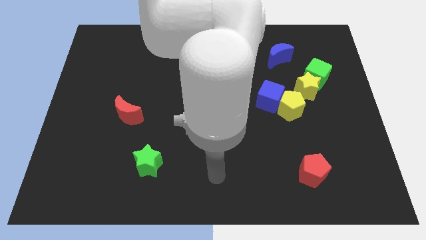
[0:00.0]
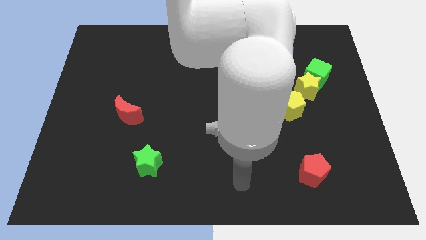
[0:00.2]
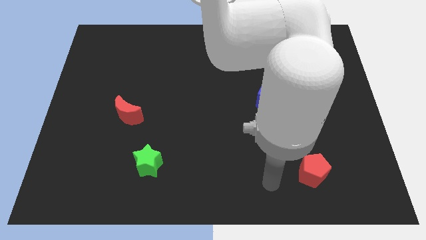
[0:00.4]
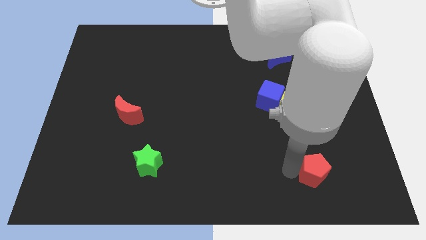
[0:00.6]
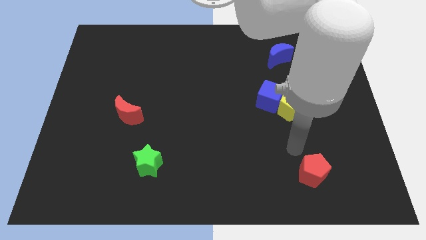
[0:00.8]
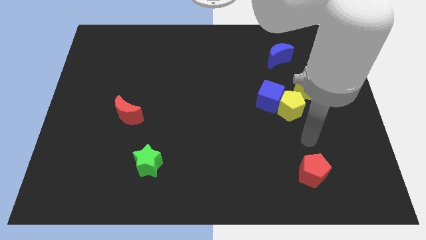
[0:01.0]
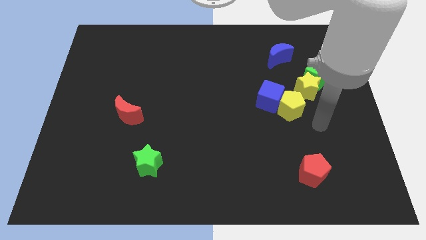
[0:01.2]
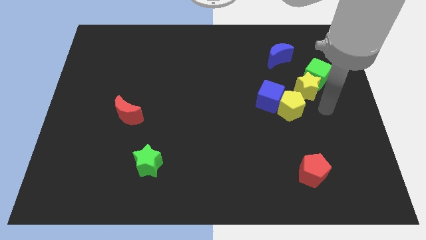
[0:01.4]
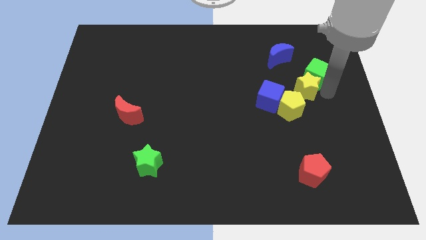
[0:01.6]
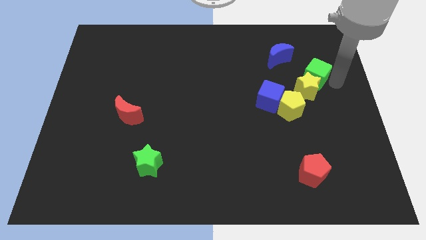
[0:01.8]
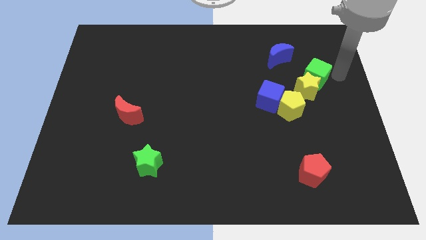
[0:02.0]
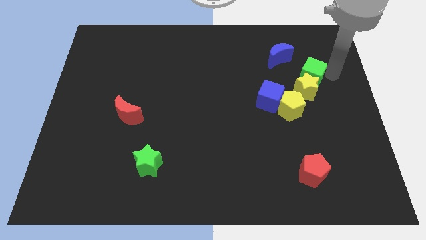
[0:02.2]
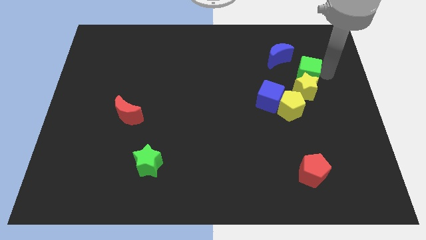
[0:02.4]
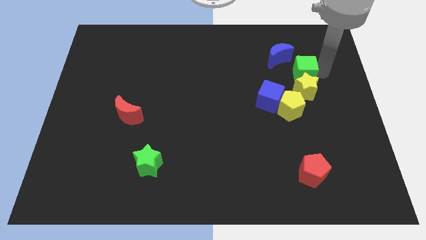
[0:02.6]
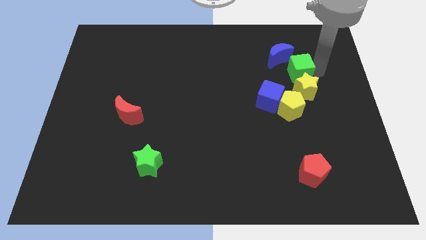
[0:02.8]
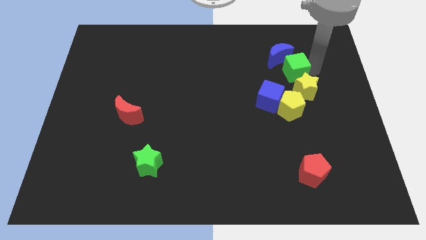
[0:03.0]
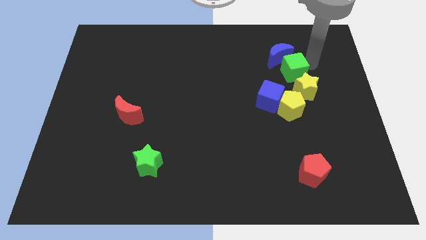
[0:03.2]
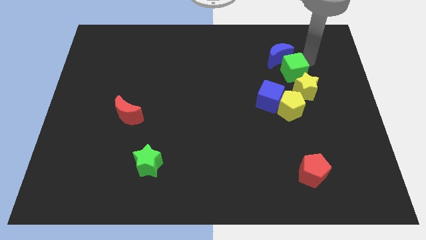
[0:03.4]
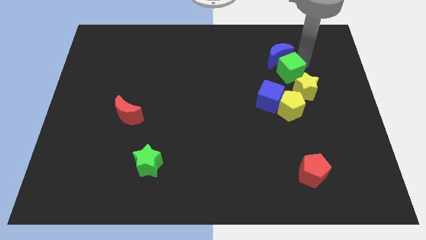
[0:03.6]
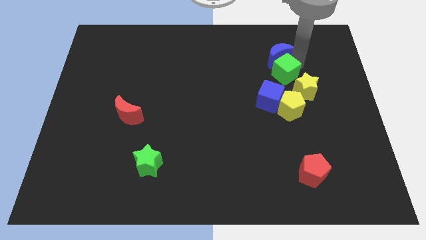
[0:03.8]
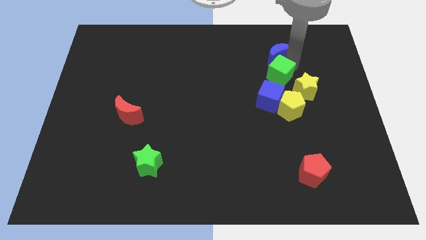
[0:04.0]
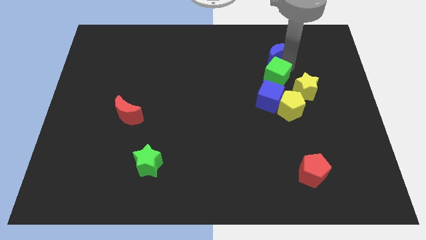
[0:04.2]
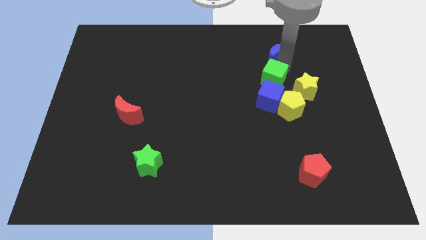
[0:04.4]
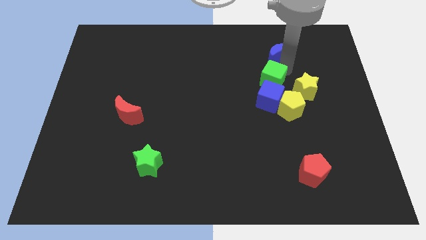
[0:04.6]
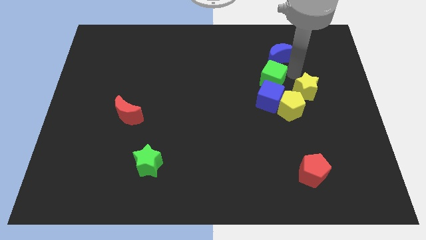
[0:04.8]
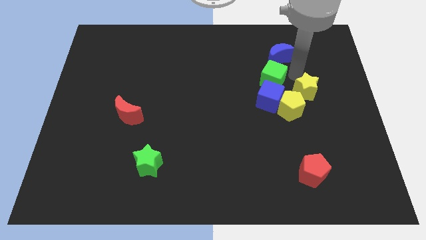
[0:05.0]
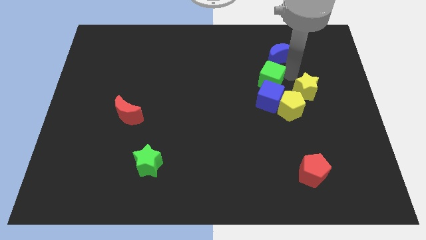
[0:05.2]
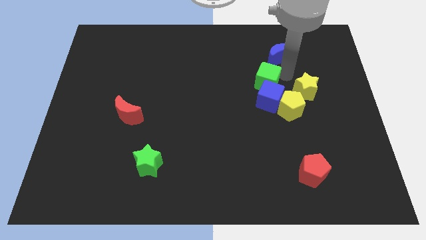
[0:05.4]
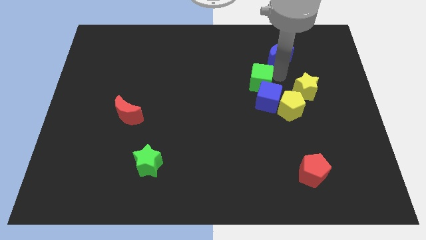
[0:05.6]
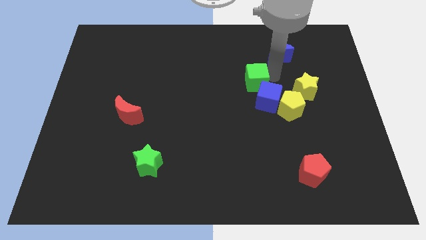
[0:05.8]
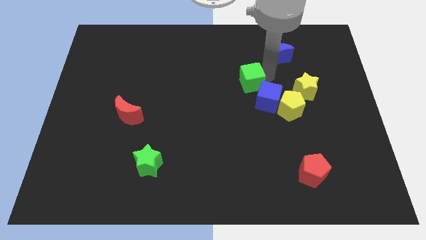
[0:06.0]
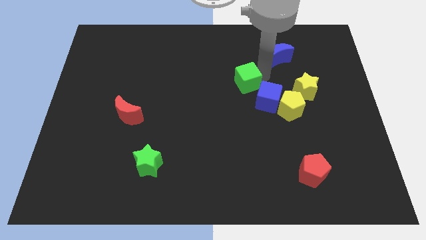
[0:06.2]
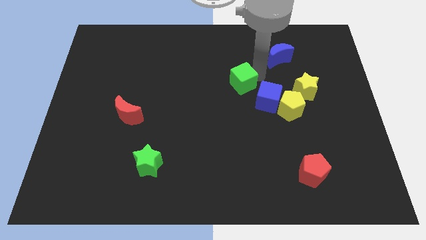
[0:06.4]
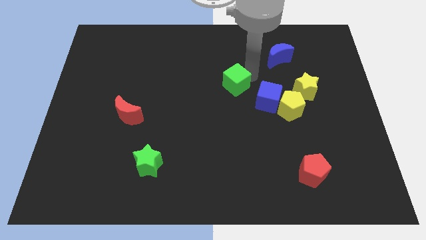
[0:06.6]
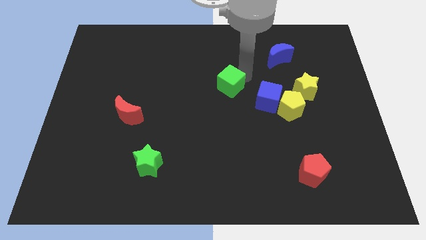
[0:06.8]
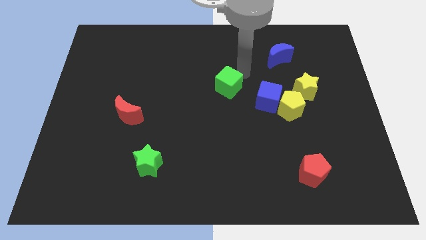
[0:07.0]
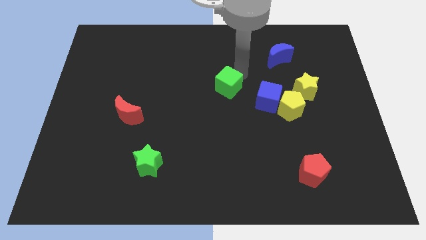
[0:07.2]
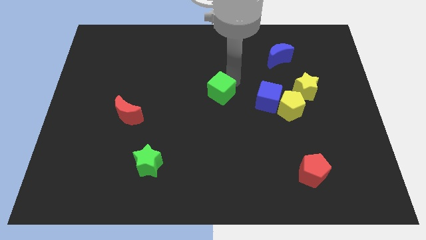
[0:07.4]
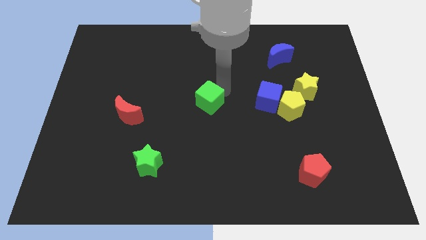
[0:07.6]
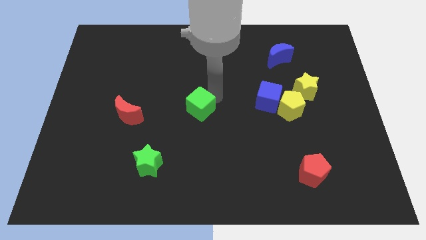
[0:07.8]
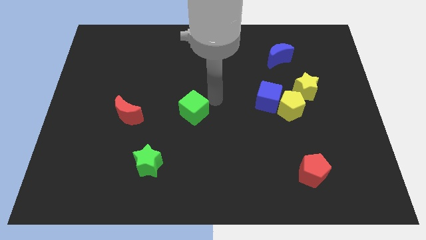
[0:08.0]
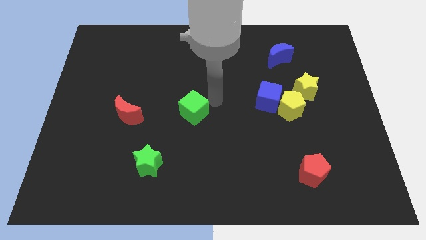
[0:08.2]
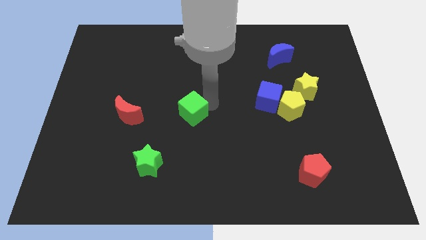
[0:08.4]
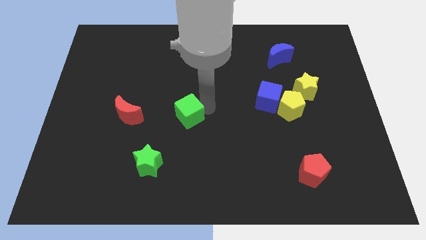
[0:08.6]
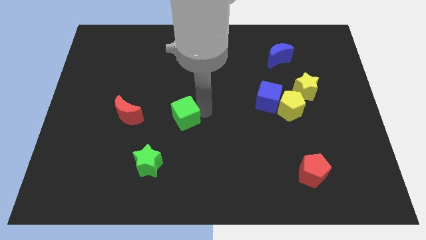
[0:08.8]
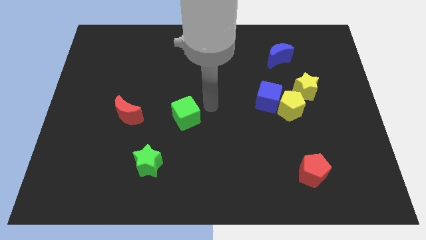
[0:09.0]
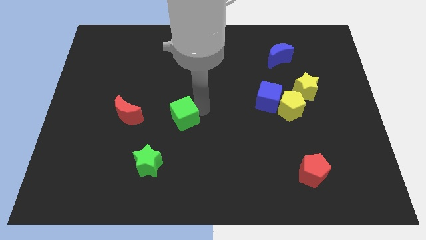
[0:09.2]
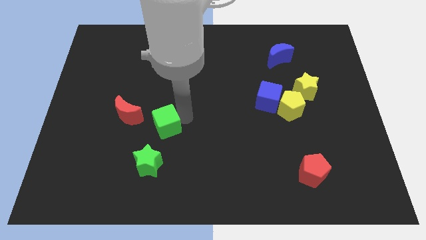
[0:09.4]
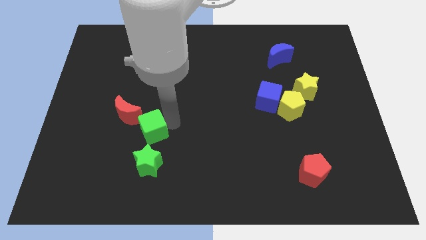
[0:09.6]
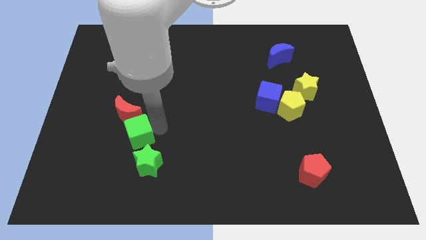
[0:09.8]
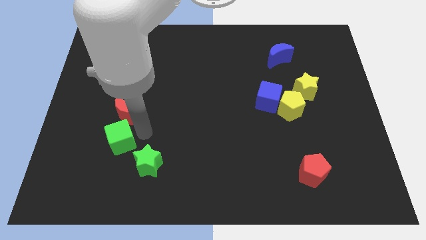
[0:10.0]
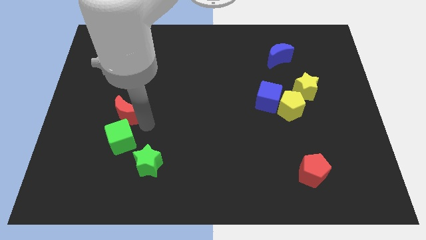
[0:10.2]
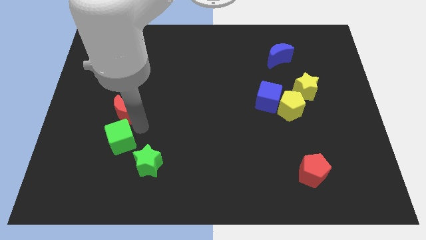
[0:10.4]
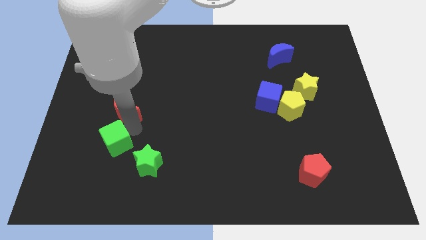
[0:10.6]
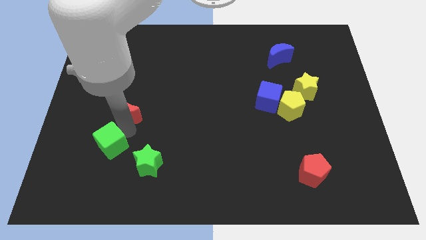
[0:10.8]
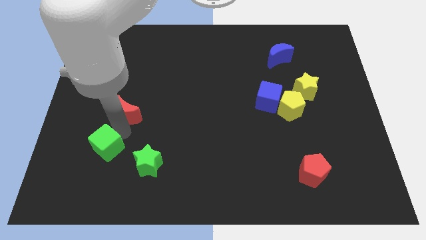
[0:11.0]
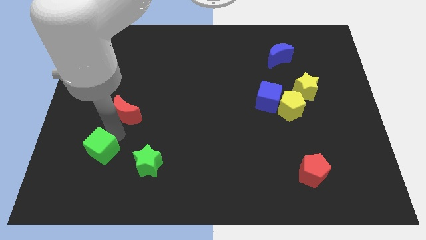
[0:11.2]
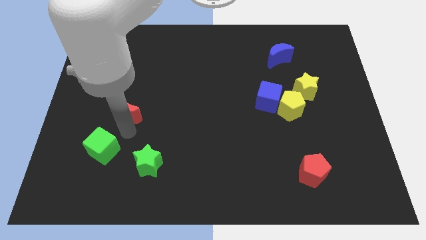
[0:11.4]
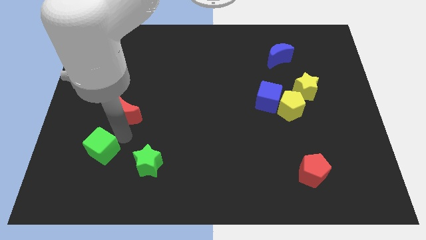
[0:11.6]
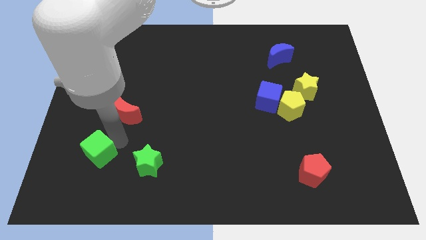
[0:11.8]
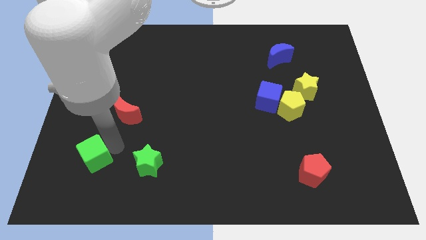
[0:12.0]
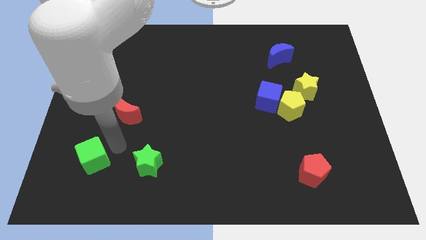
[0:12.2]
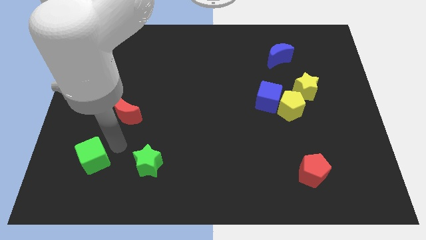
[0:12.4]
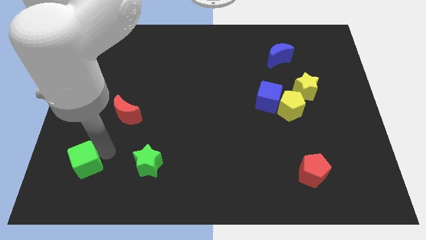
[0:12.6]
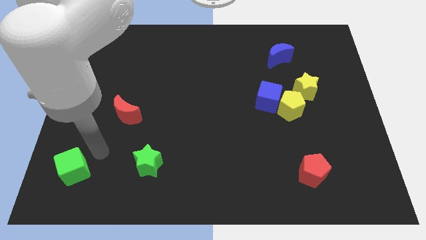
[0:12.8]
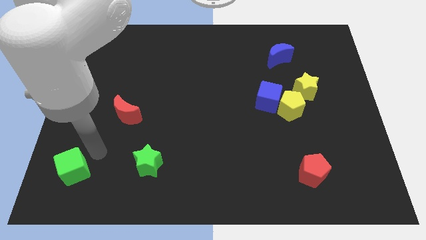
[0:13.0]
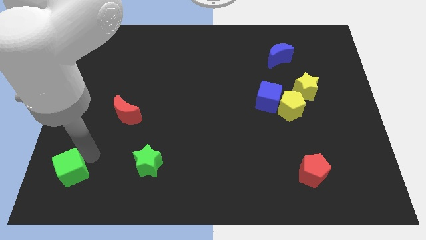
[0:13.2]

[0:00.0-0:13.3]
move the green cube to the lower left corner
